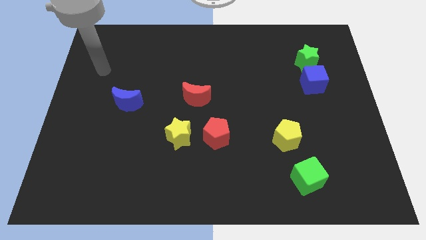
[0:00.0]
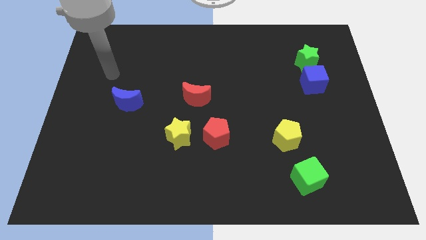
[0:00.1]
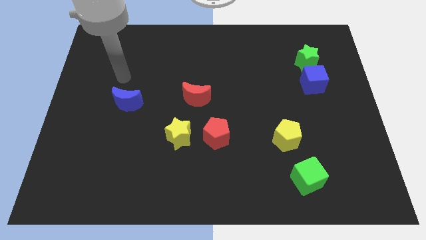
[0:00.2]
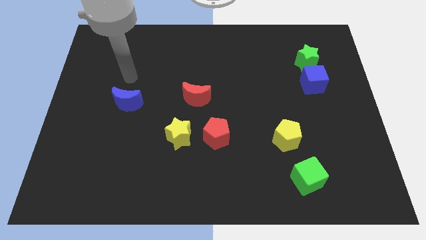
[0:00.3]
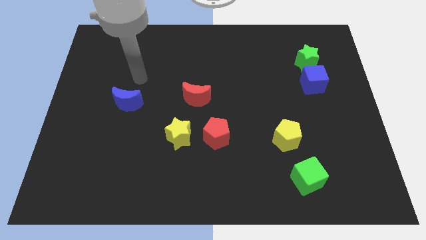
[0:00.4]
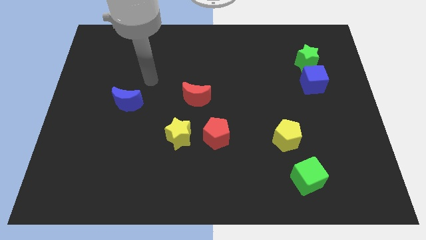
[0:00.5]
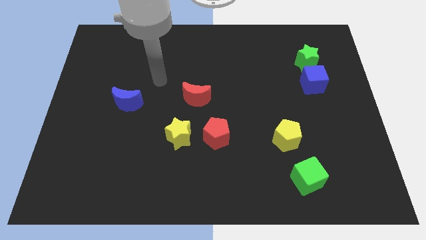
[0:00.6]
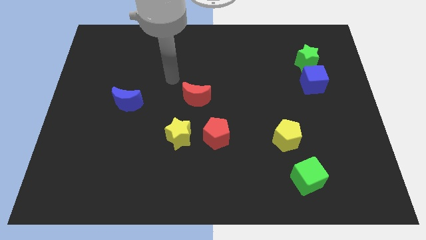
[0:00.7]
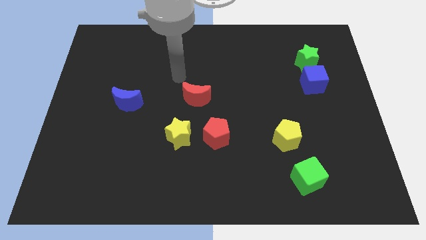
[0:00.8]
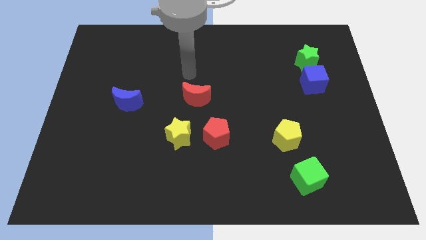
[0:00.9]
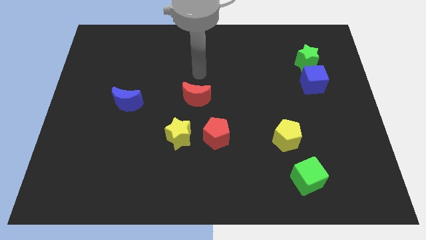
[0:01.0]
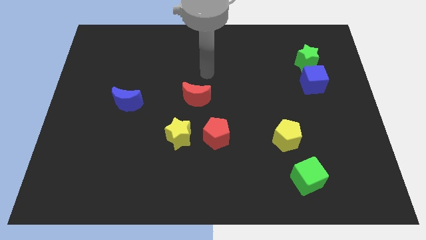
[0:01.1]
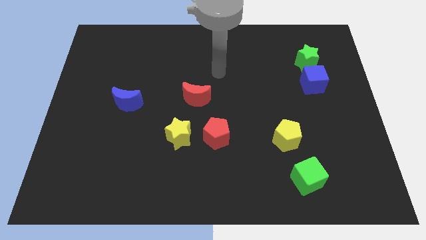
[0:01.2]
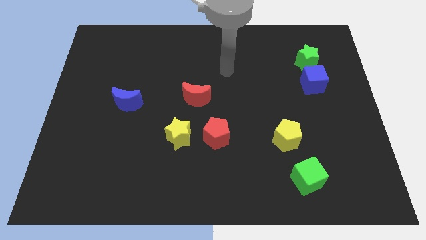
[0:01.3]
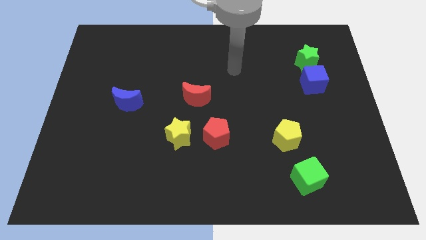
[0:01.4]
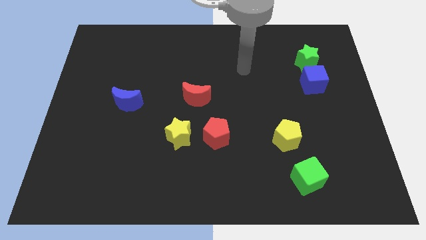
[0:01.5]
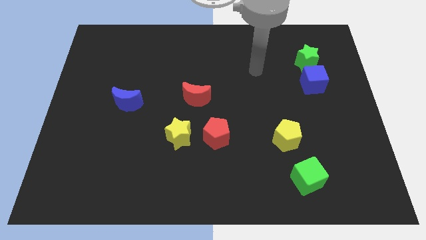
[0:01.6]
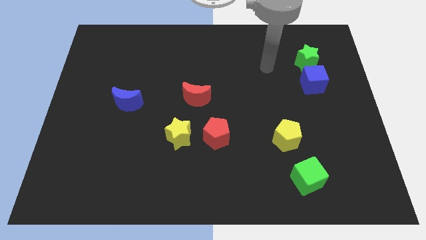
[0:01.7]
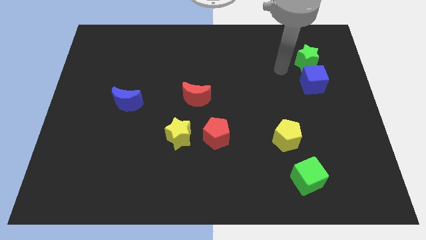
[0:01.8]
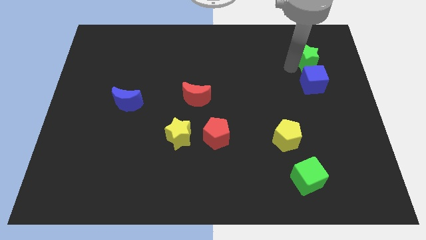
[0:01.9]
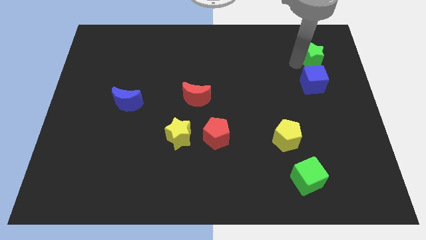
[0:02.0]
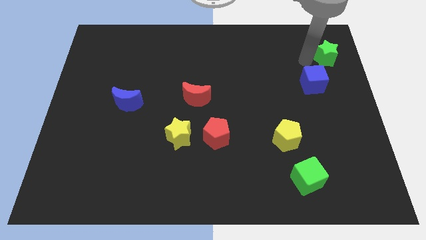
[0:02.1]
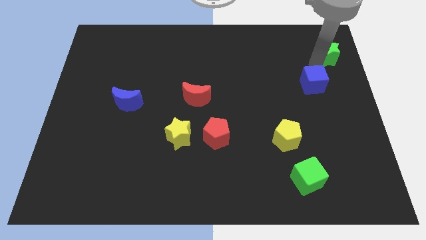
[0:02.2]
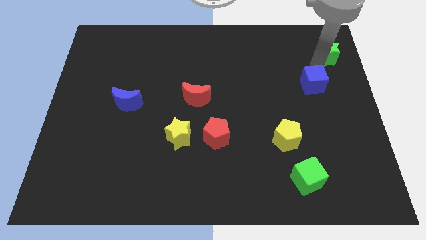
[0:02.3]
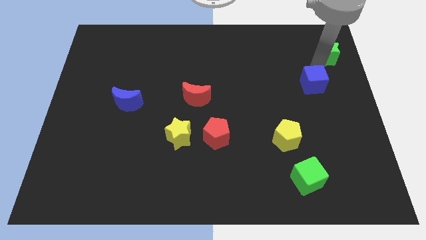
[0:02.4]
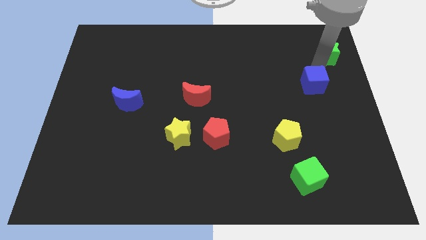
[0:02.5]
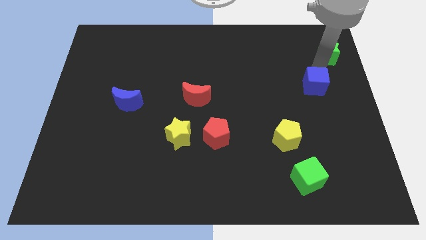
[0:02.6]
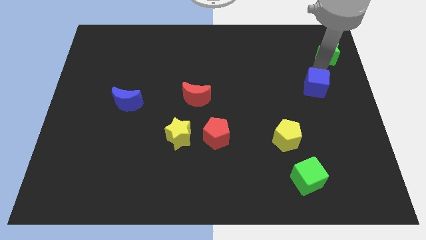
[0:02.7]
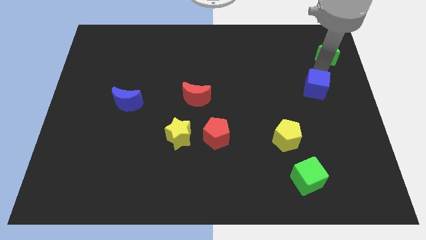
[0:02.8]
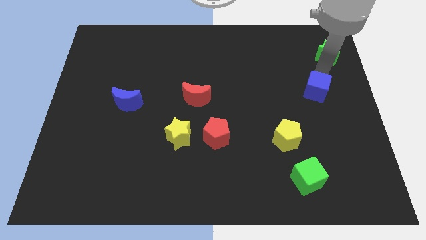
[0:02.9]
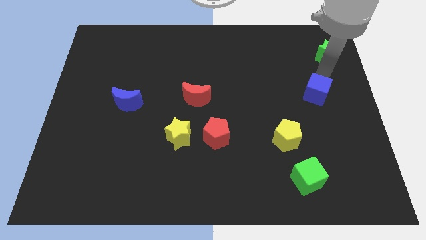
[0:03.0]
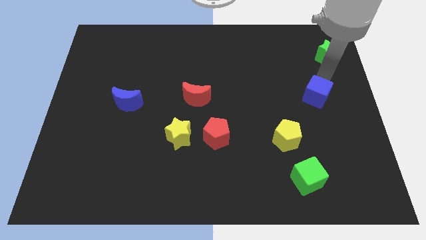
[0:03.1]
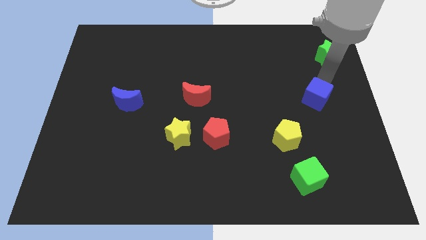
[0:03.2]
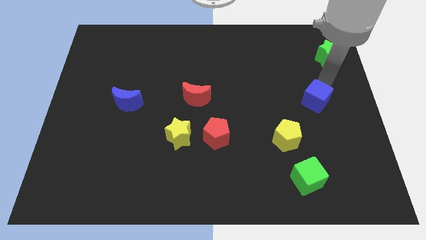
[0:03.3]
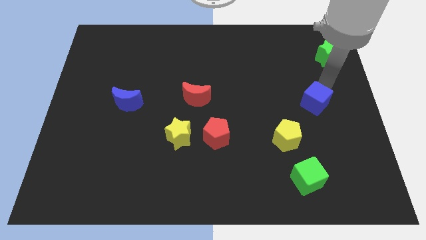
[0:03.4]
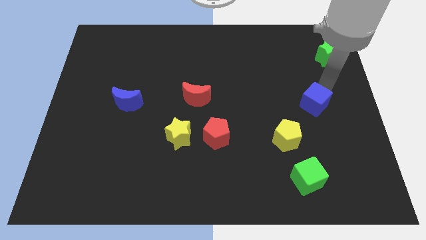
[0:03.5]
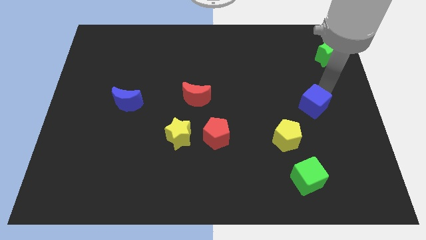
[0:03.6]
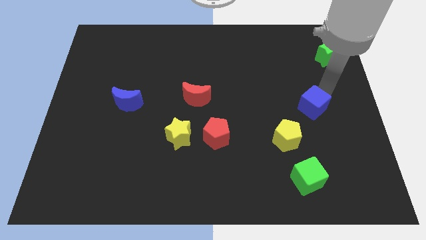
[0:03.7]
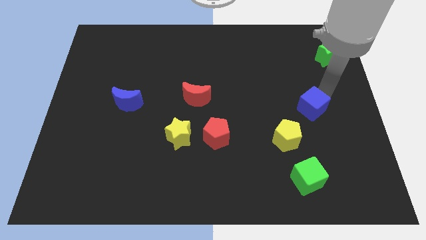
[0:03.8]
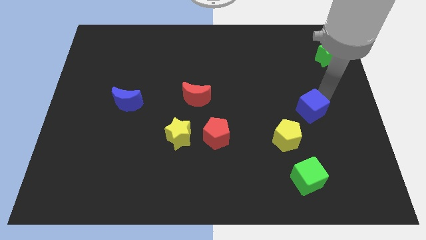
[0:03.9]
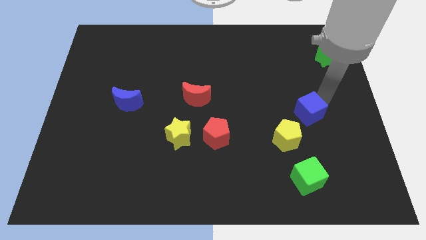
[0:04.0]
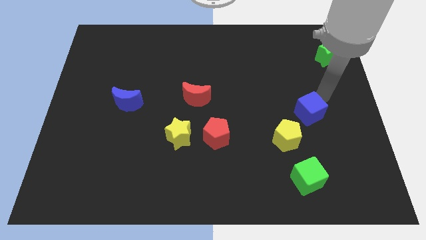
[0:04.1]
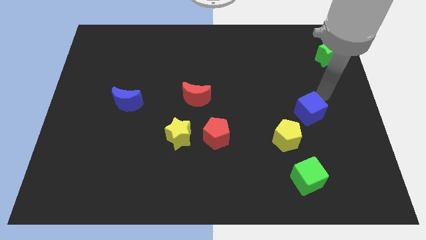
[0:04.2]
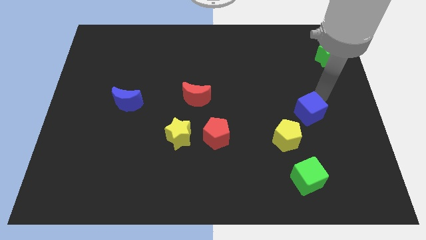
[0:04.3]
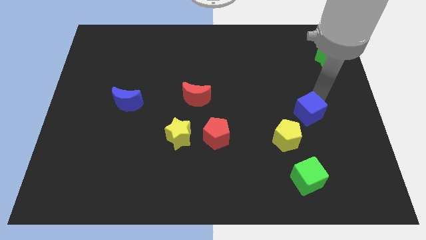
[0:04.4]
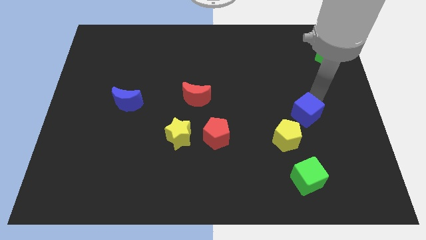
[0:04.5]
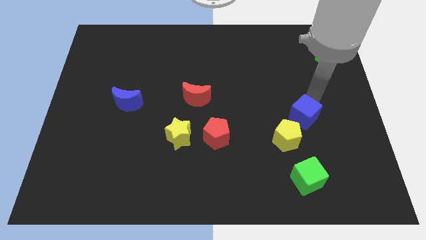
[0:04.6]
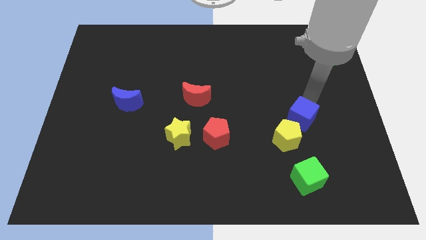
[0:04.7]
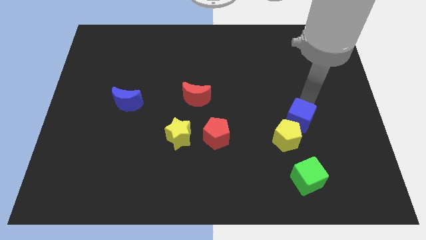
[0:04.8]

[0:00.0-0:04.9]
move the blue cube towards the yellow pentagon

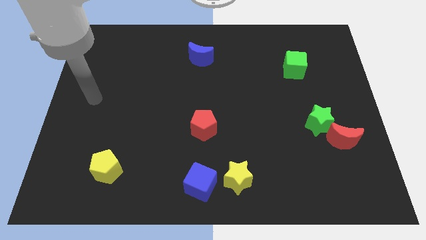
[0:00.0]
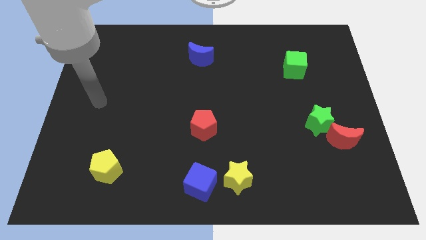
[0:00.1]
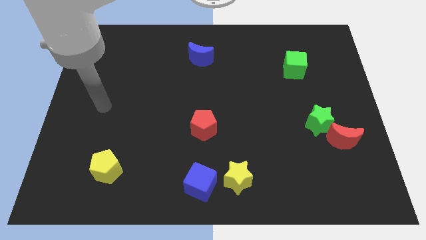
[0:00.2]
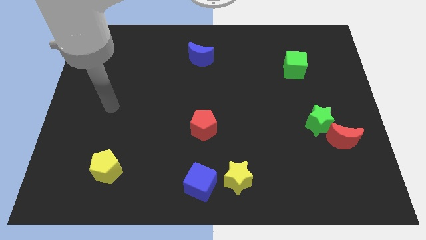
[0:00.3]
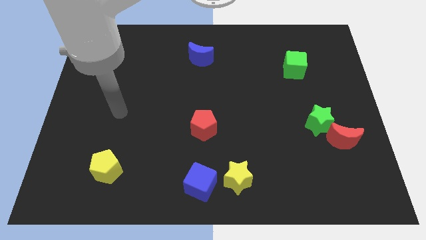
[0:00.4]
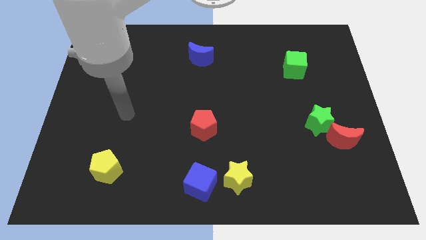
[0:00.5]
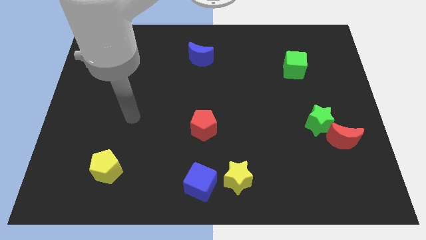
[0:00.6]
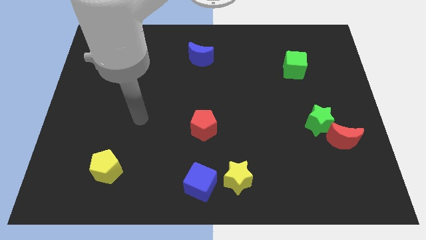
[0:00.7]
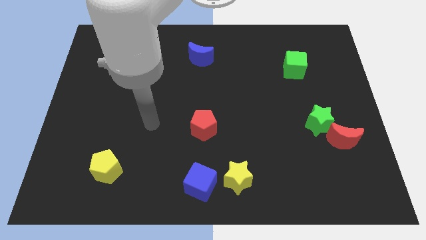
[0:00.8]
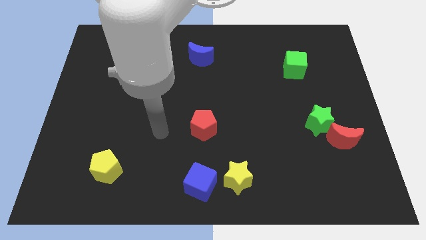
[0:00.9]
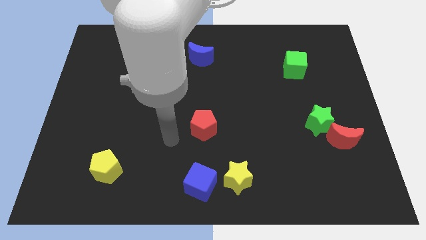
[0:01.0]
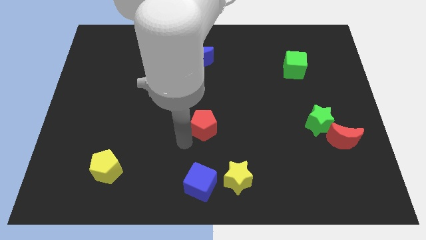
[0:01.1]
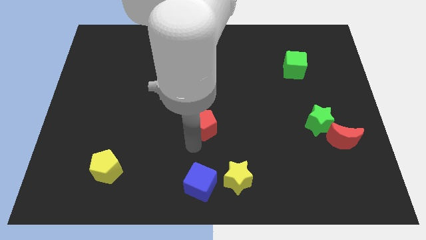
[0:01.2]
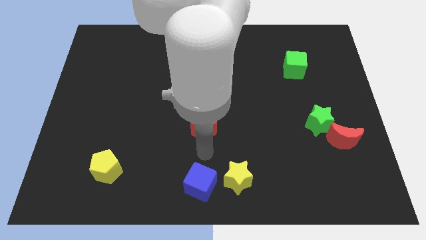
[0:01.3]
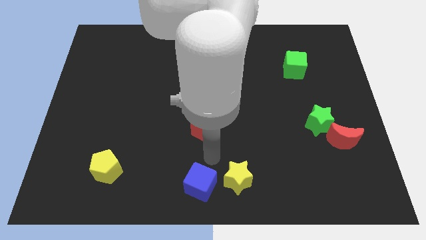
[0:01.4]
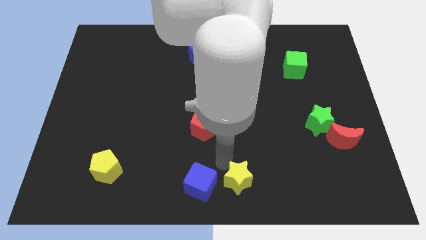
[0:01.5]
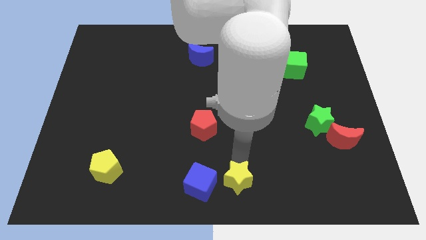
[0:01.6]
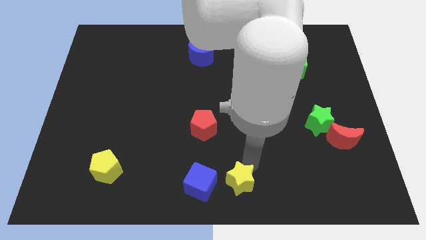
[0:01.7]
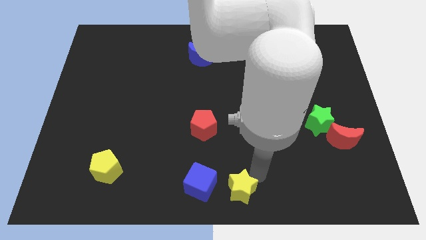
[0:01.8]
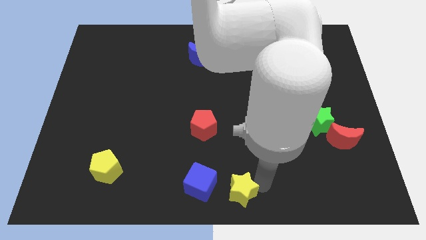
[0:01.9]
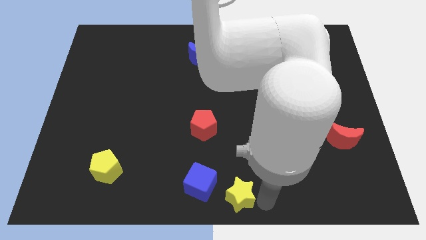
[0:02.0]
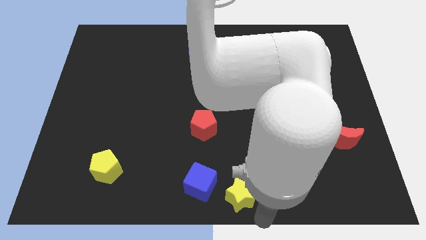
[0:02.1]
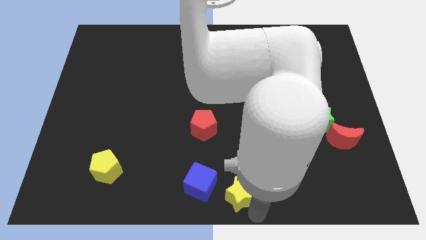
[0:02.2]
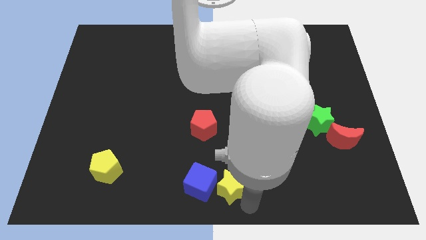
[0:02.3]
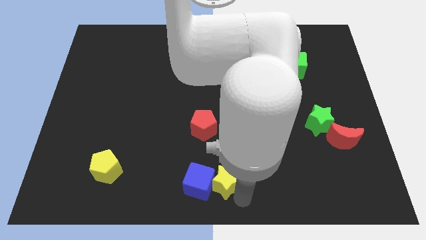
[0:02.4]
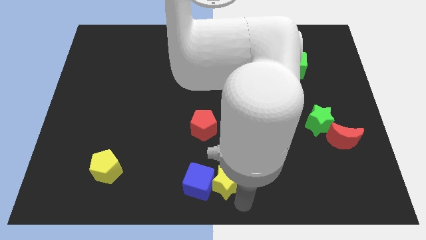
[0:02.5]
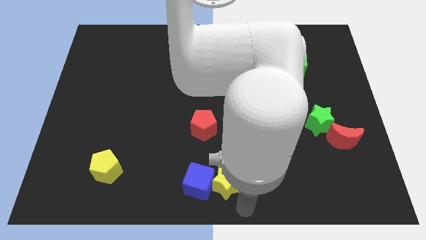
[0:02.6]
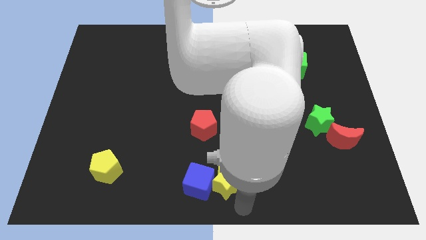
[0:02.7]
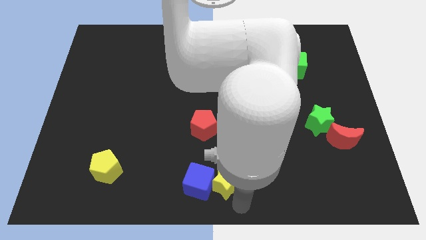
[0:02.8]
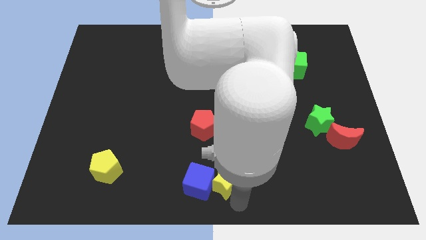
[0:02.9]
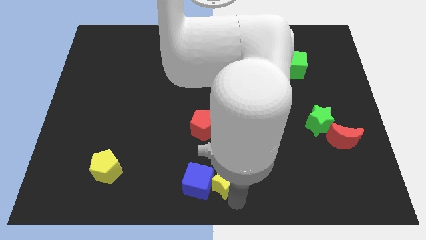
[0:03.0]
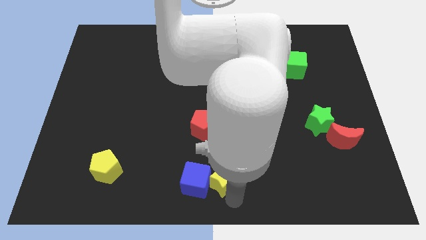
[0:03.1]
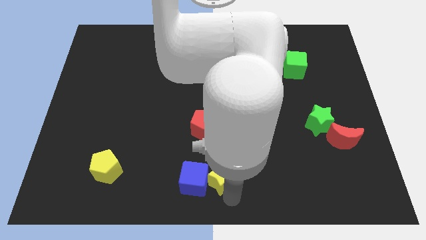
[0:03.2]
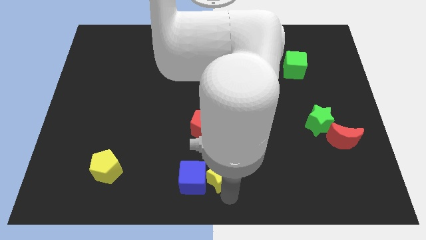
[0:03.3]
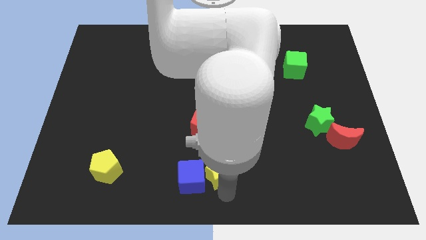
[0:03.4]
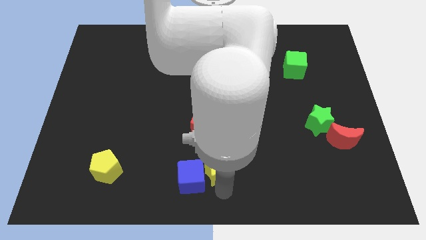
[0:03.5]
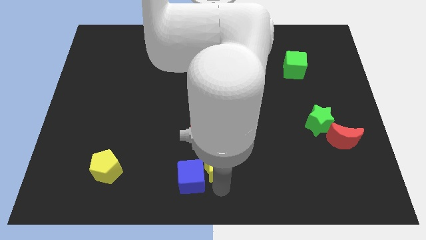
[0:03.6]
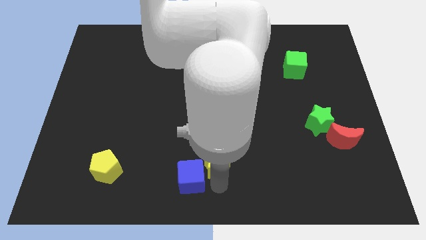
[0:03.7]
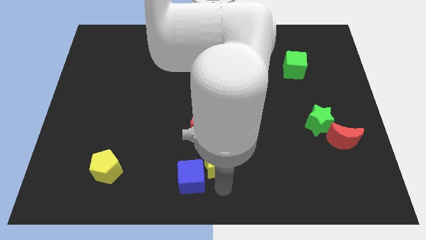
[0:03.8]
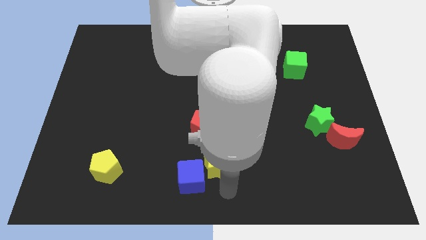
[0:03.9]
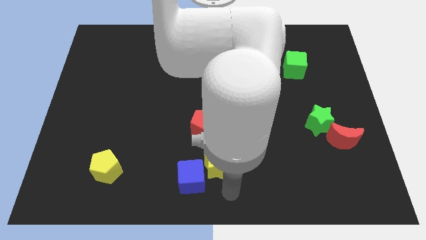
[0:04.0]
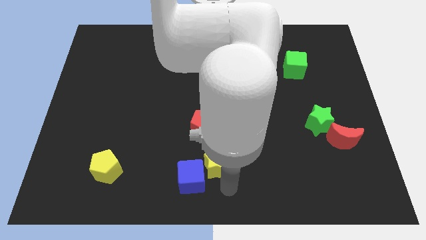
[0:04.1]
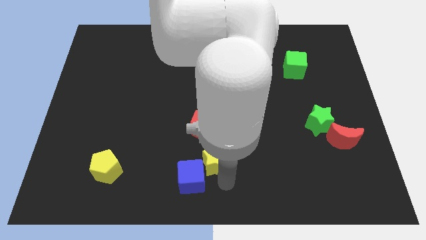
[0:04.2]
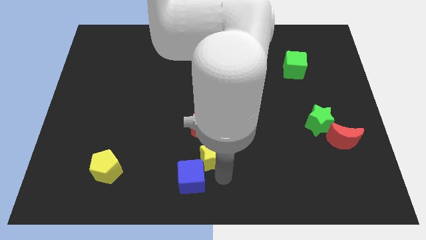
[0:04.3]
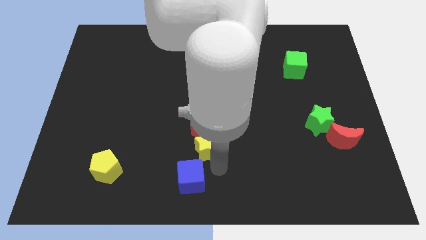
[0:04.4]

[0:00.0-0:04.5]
push the yellow star to the red pentagon
